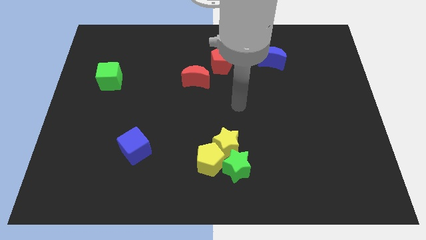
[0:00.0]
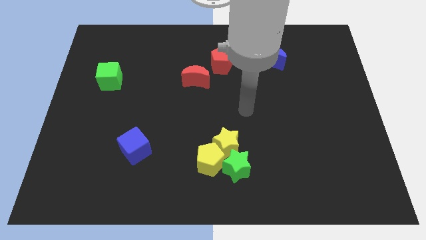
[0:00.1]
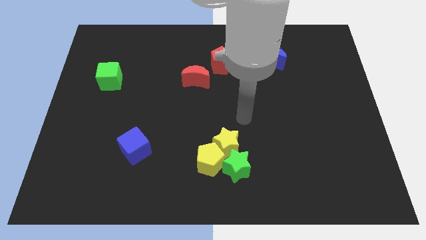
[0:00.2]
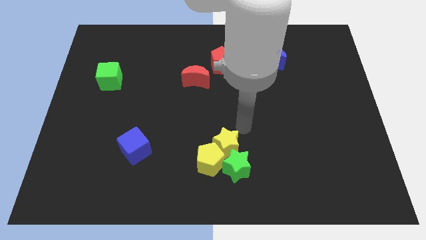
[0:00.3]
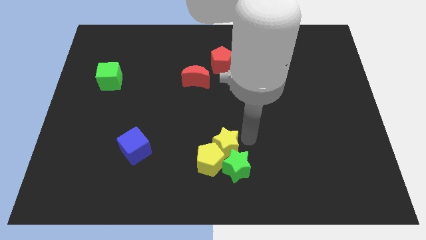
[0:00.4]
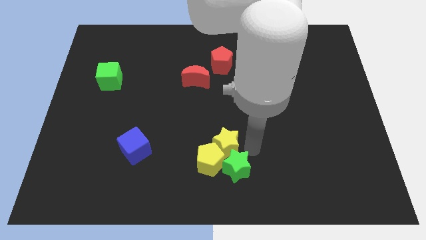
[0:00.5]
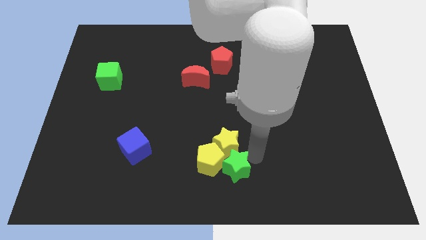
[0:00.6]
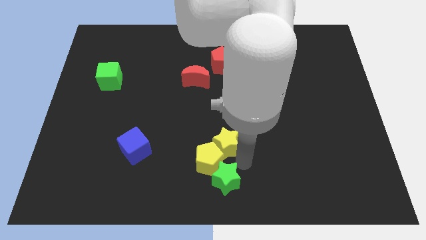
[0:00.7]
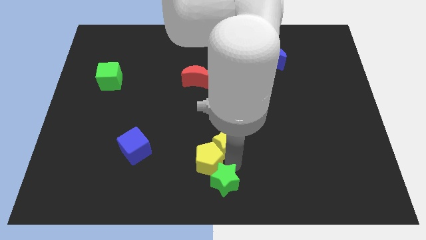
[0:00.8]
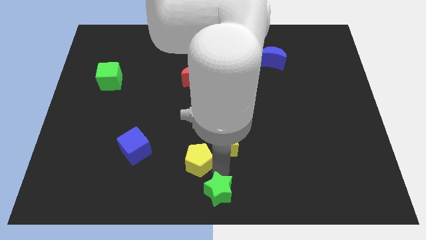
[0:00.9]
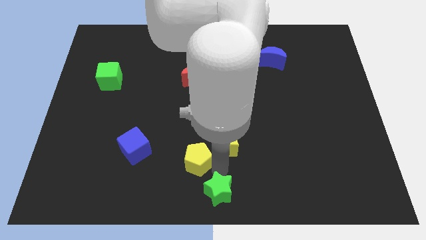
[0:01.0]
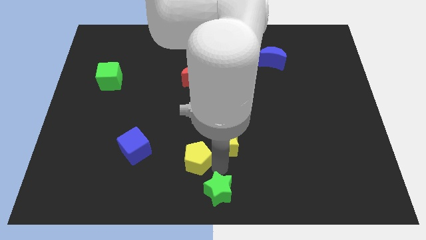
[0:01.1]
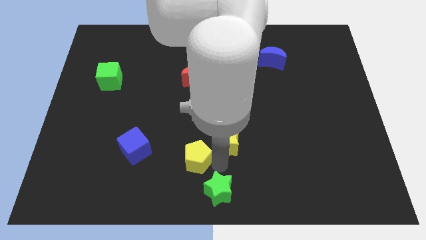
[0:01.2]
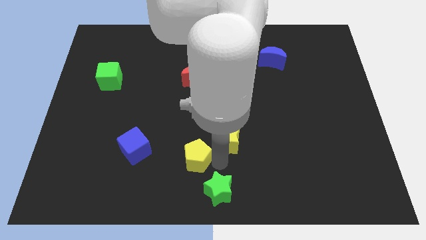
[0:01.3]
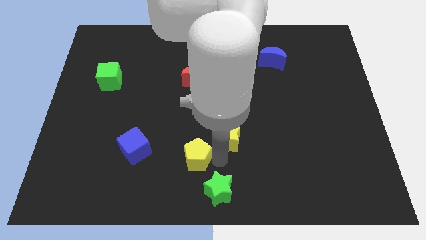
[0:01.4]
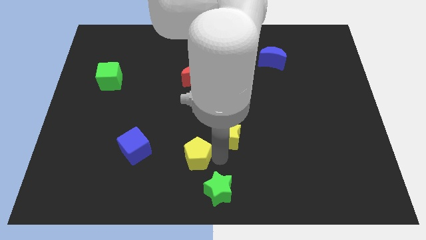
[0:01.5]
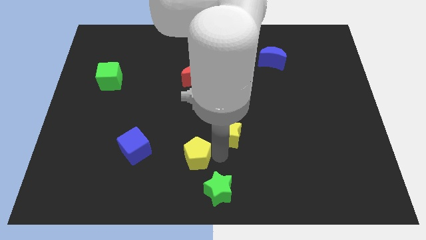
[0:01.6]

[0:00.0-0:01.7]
separate the yellow star from the yellow pentagon and green star

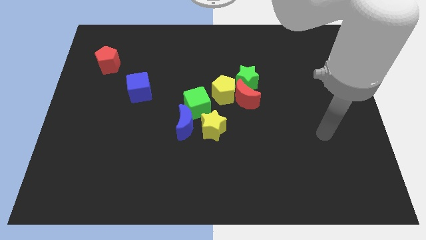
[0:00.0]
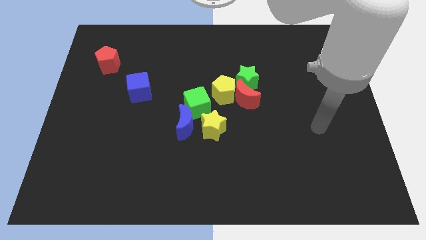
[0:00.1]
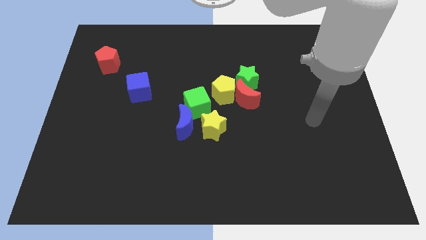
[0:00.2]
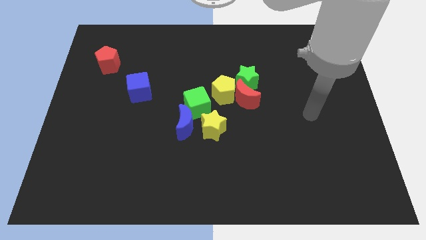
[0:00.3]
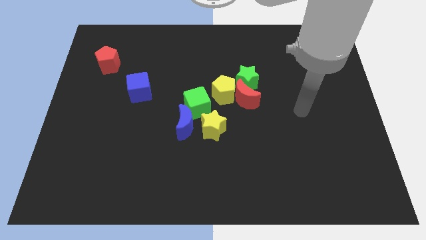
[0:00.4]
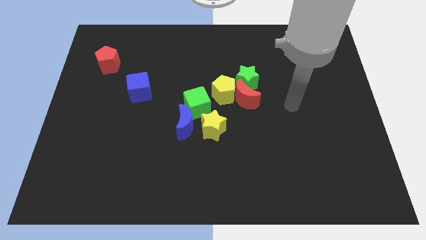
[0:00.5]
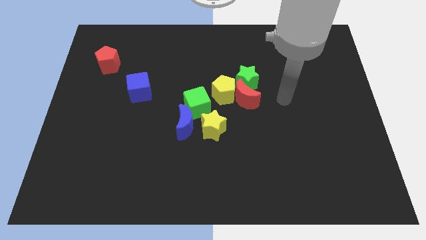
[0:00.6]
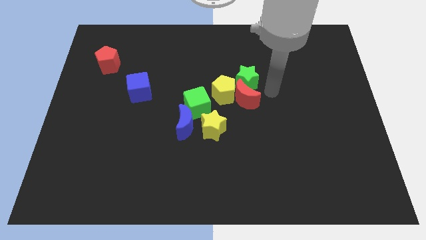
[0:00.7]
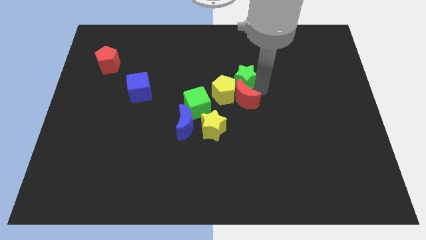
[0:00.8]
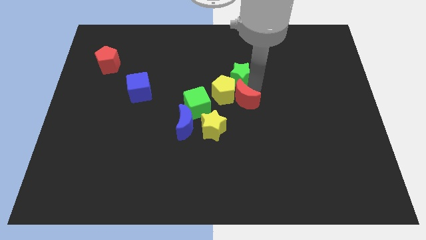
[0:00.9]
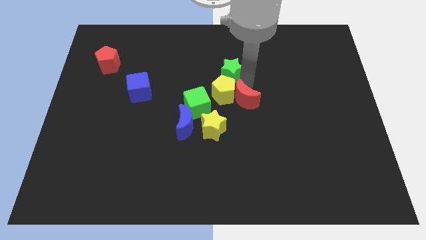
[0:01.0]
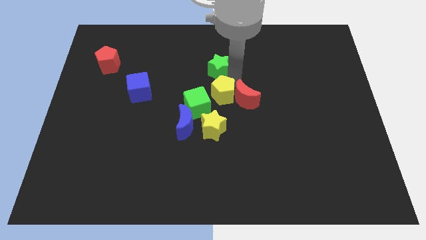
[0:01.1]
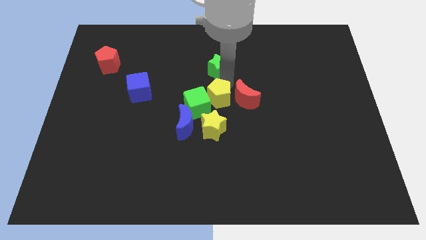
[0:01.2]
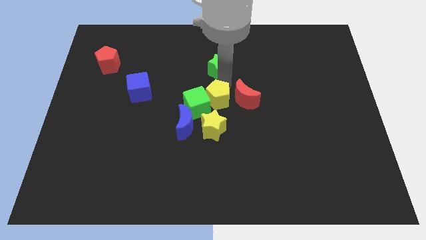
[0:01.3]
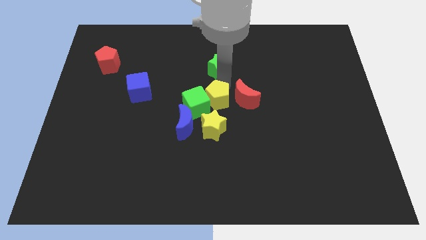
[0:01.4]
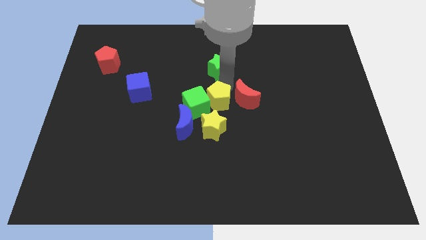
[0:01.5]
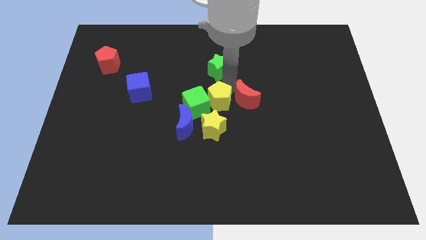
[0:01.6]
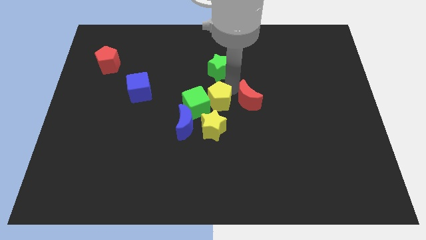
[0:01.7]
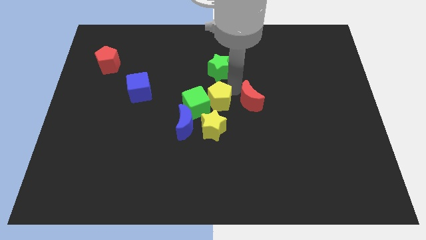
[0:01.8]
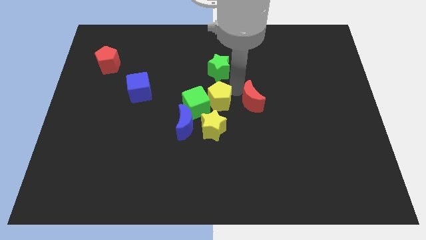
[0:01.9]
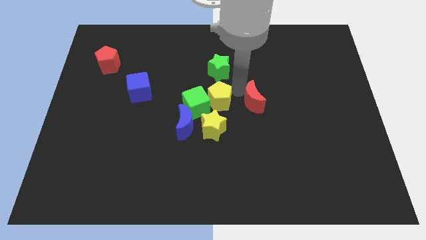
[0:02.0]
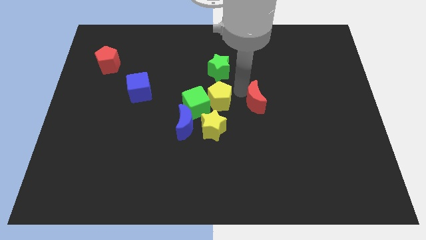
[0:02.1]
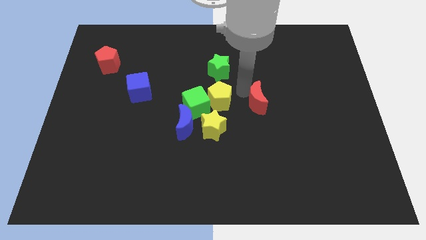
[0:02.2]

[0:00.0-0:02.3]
pull the red moon apart from the yellow pentagon and green star

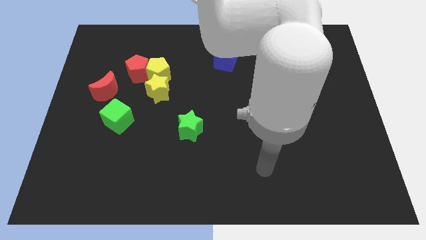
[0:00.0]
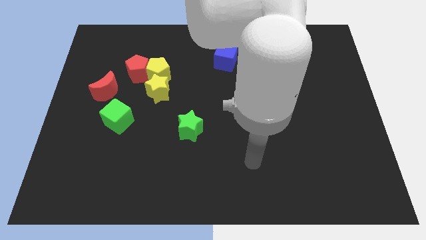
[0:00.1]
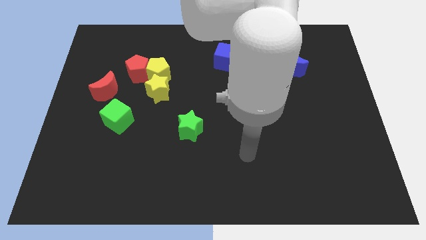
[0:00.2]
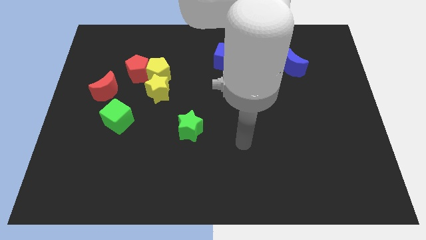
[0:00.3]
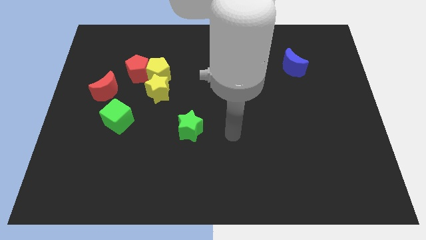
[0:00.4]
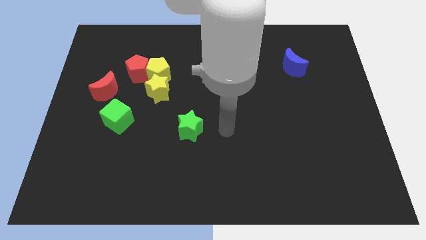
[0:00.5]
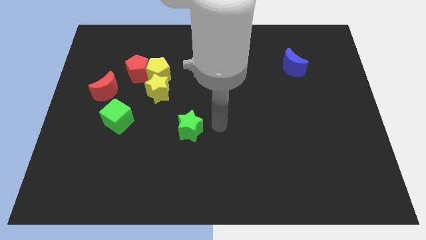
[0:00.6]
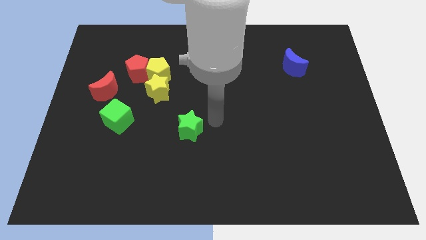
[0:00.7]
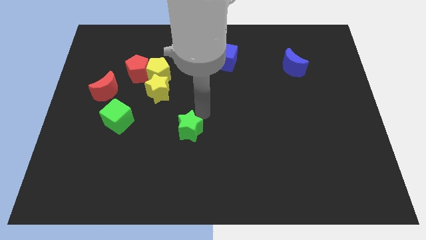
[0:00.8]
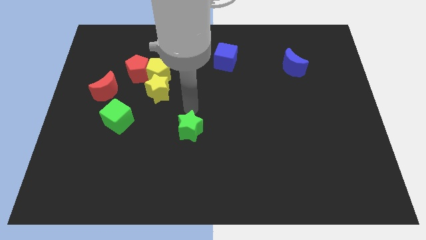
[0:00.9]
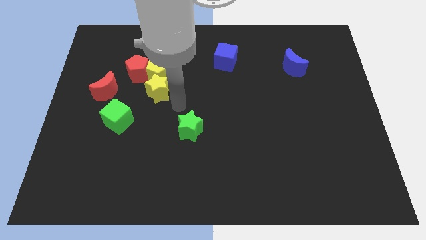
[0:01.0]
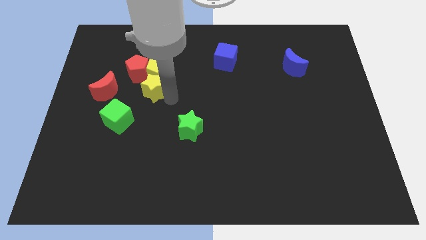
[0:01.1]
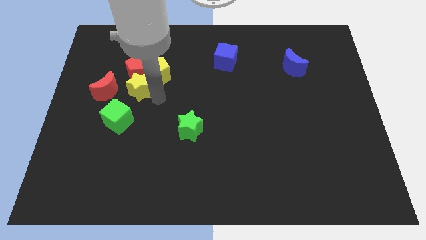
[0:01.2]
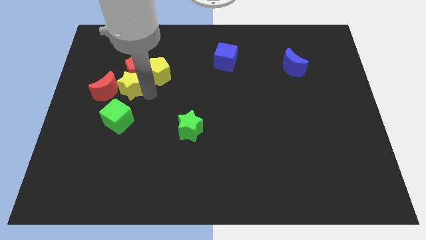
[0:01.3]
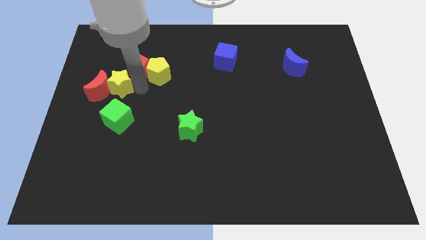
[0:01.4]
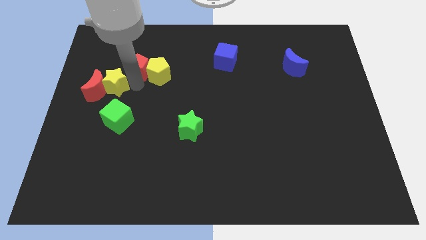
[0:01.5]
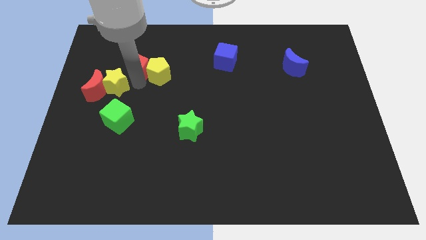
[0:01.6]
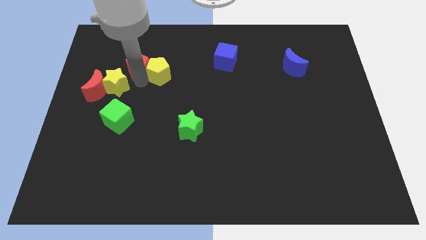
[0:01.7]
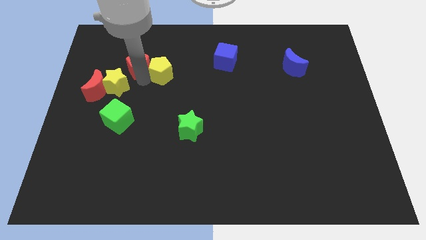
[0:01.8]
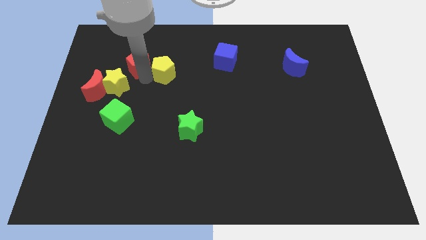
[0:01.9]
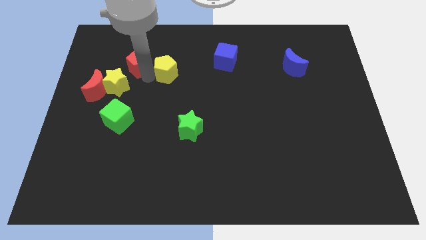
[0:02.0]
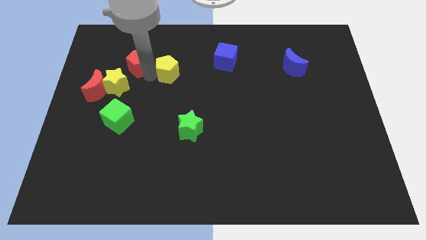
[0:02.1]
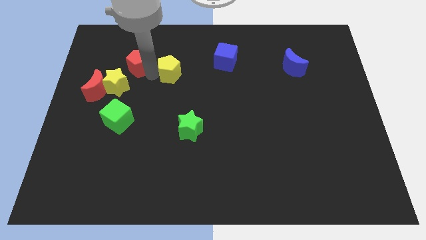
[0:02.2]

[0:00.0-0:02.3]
move the yellow pentagon away from the red pentagon and yellow star

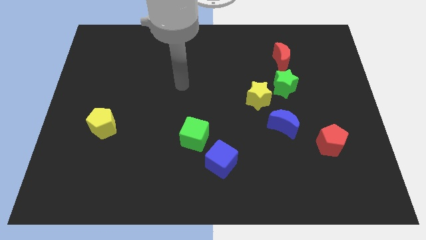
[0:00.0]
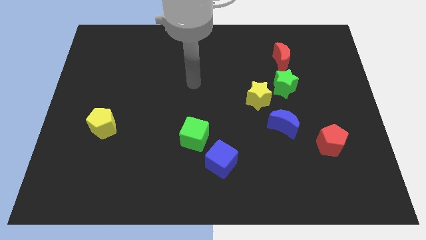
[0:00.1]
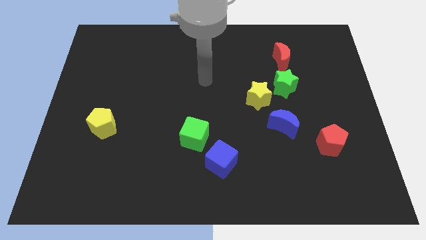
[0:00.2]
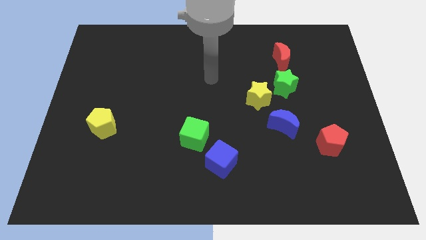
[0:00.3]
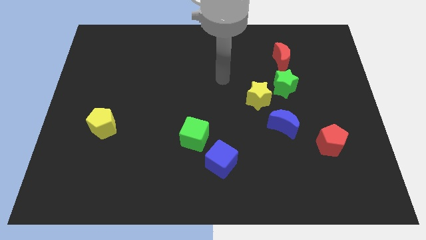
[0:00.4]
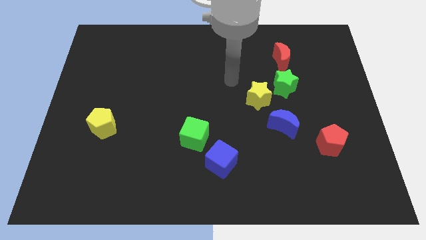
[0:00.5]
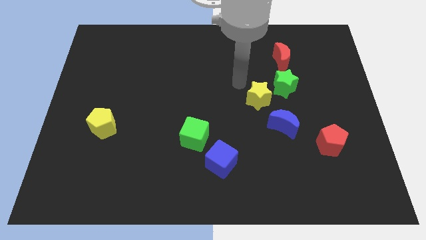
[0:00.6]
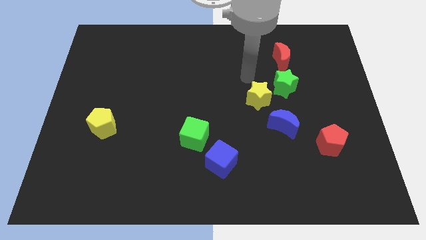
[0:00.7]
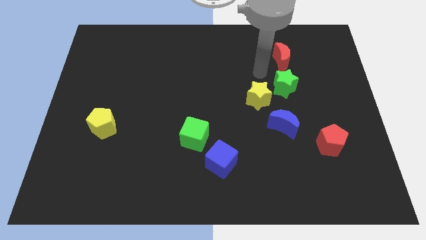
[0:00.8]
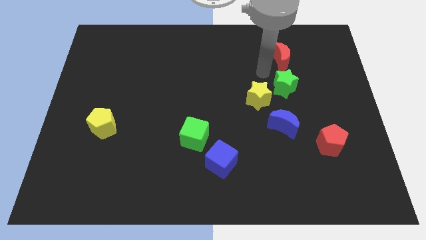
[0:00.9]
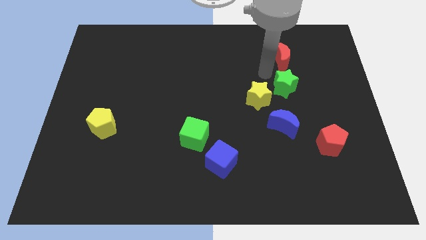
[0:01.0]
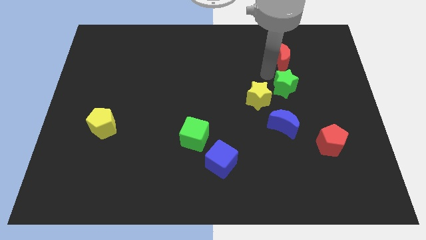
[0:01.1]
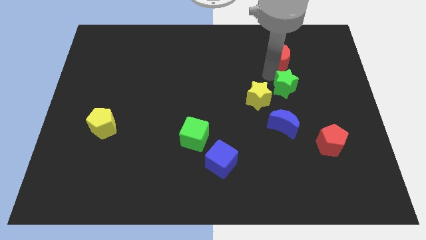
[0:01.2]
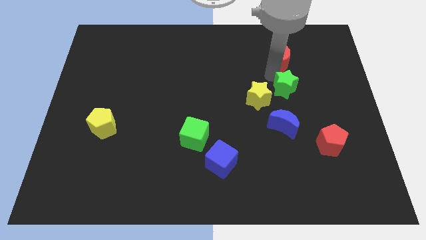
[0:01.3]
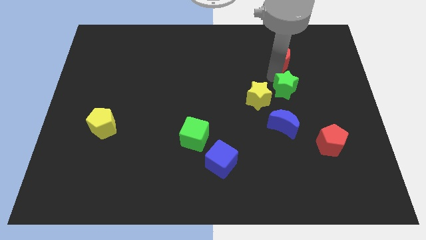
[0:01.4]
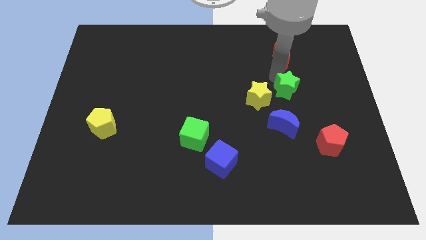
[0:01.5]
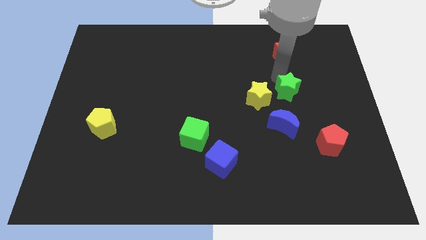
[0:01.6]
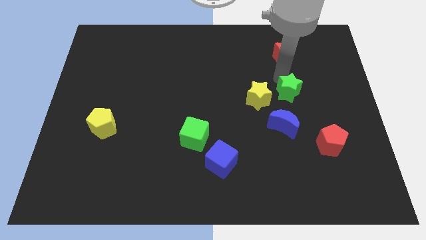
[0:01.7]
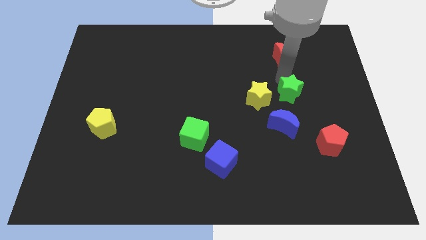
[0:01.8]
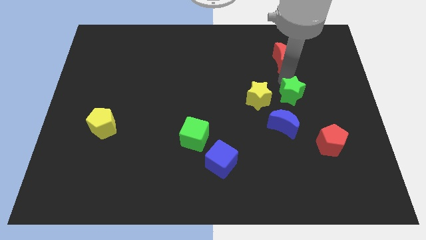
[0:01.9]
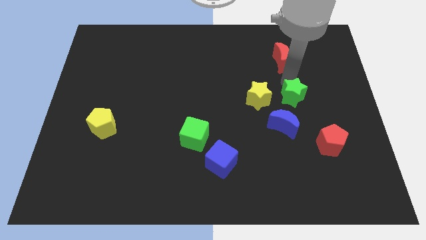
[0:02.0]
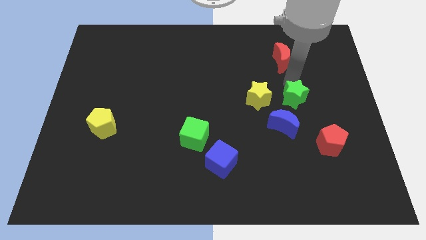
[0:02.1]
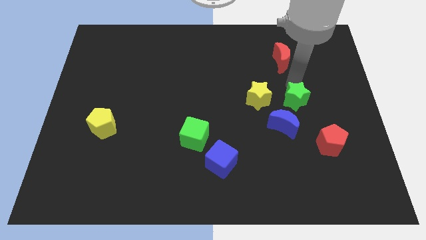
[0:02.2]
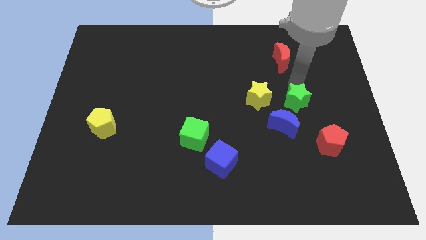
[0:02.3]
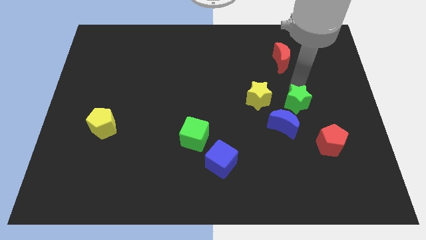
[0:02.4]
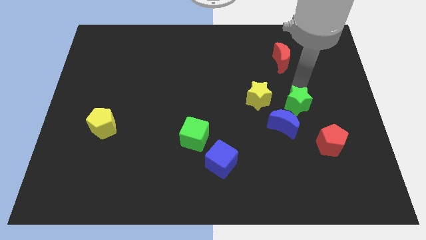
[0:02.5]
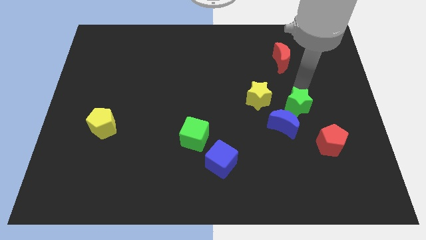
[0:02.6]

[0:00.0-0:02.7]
move the green star away from the yellow star and red moon

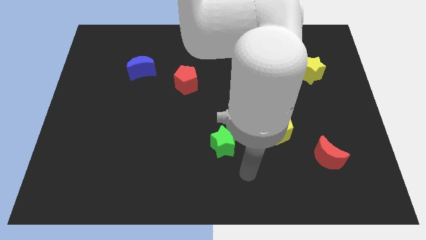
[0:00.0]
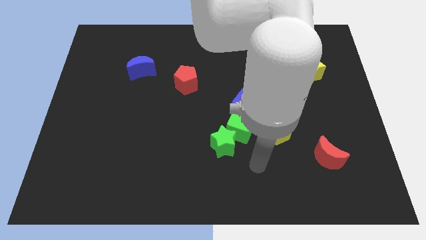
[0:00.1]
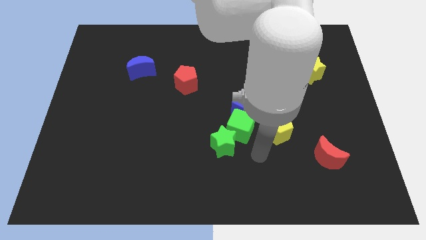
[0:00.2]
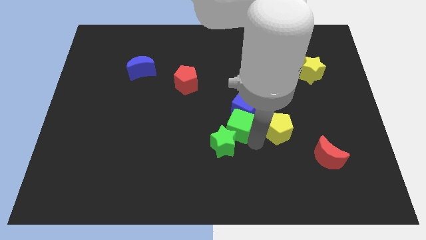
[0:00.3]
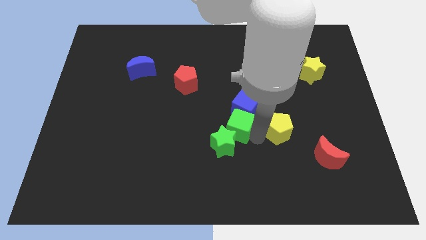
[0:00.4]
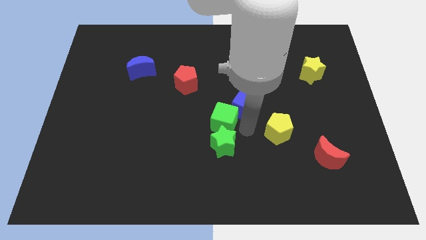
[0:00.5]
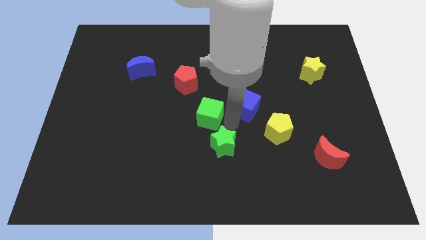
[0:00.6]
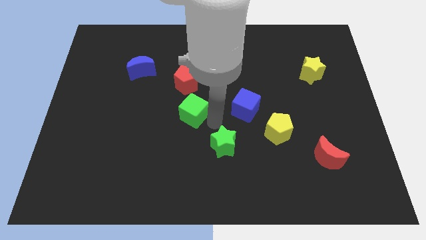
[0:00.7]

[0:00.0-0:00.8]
separate the green star from the green cube
